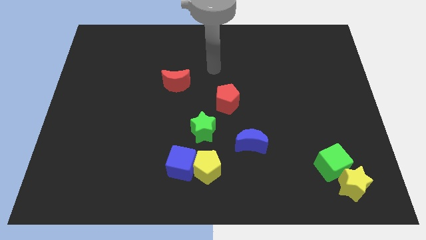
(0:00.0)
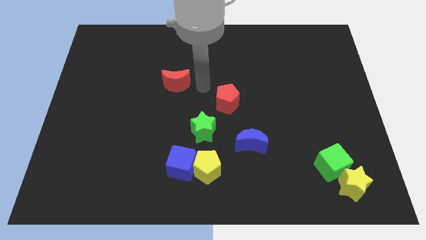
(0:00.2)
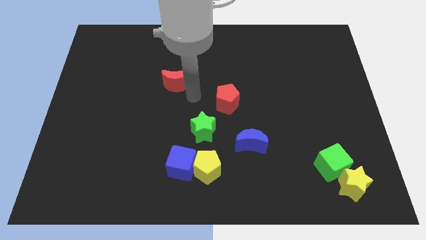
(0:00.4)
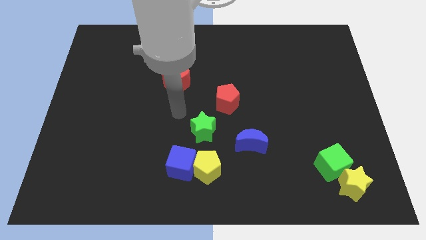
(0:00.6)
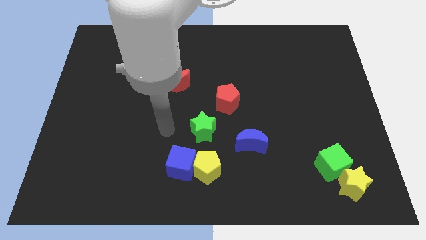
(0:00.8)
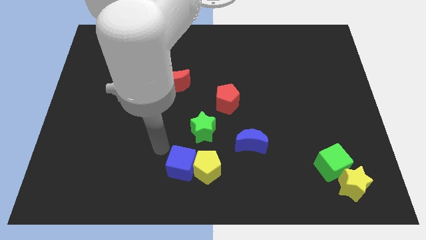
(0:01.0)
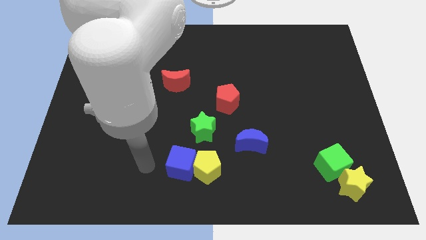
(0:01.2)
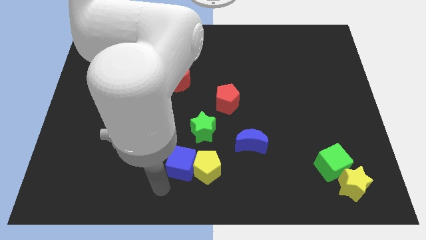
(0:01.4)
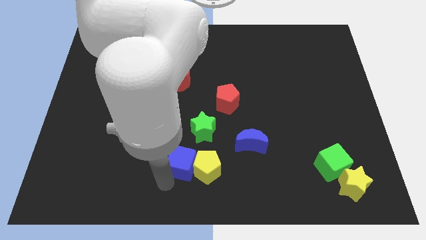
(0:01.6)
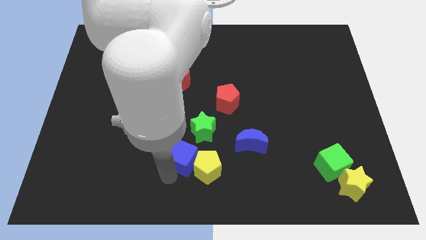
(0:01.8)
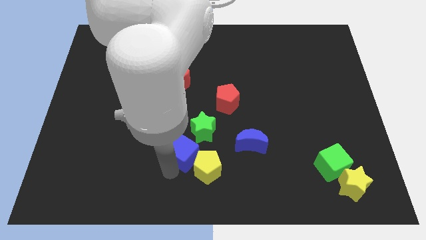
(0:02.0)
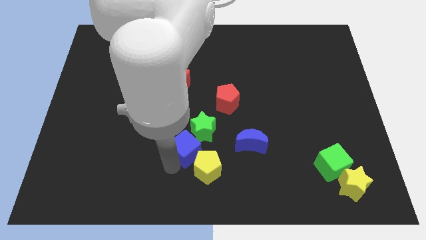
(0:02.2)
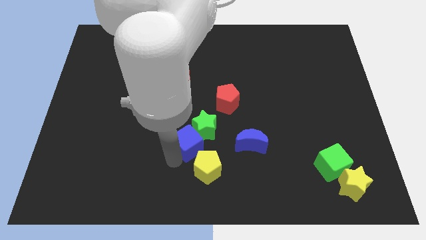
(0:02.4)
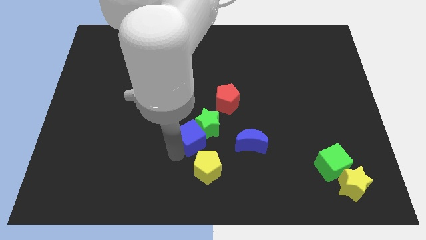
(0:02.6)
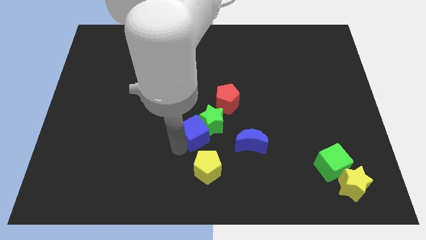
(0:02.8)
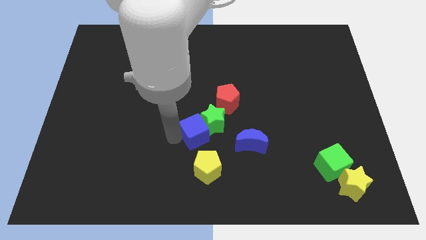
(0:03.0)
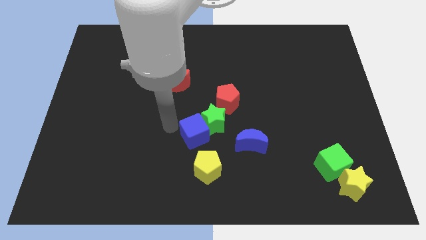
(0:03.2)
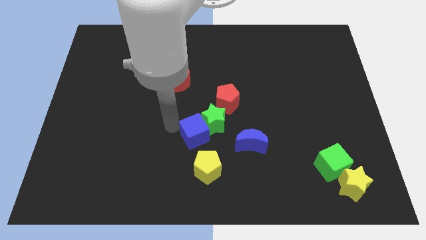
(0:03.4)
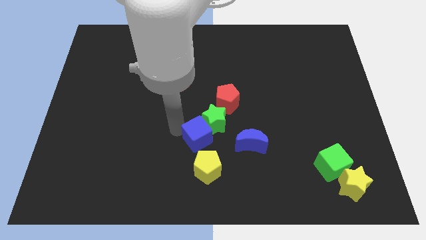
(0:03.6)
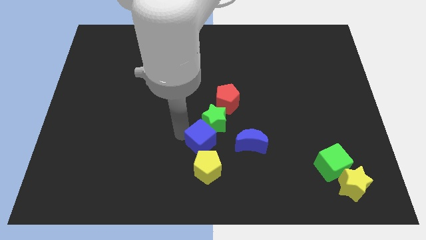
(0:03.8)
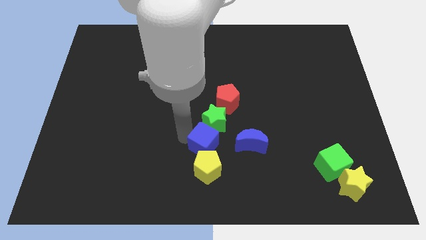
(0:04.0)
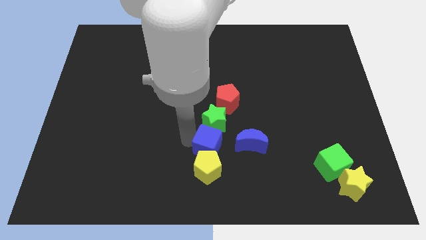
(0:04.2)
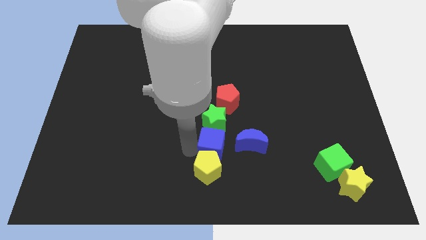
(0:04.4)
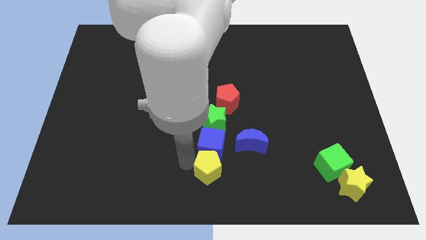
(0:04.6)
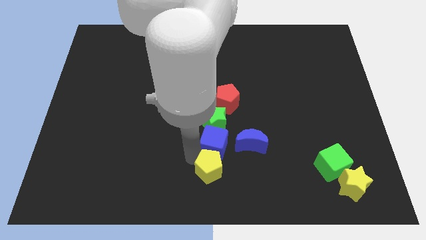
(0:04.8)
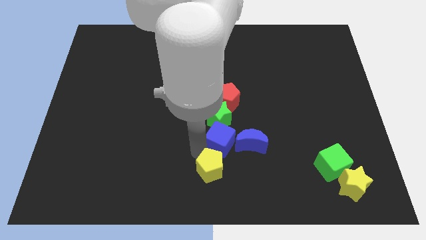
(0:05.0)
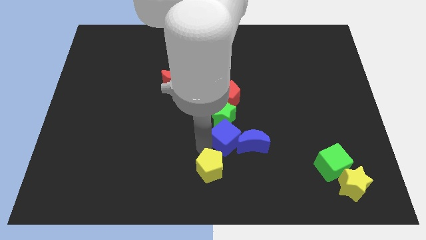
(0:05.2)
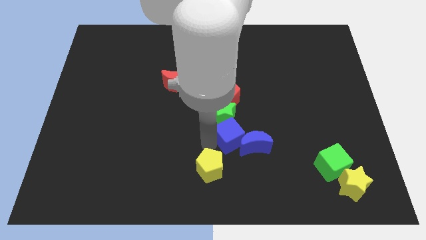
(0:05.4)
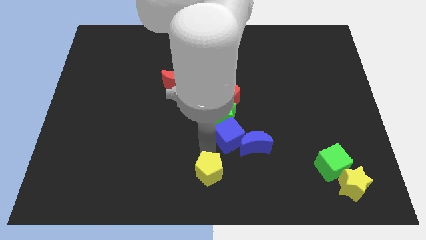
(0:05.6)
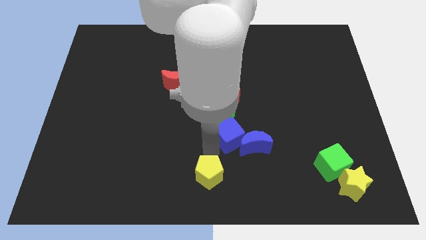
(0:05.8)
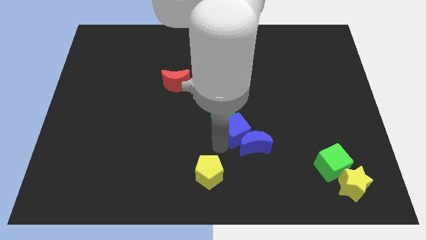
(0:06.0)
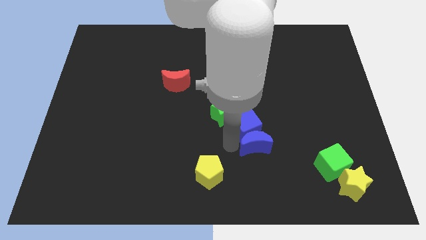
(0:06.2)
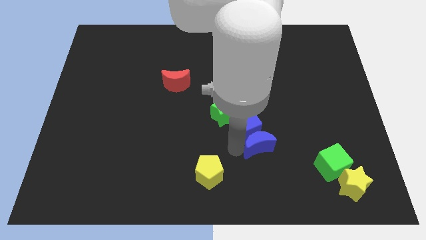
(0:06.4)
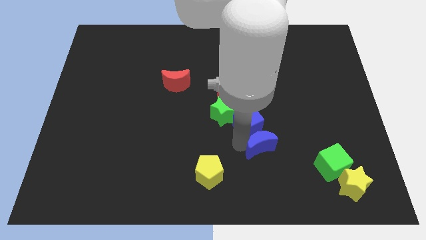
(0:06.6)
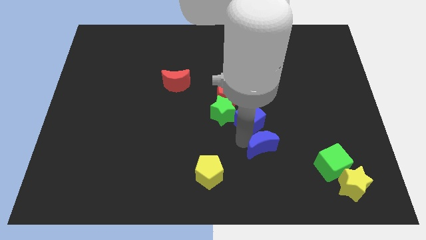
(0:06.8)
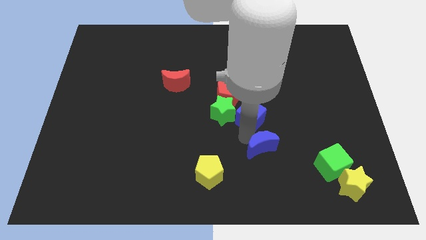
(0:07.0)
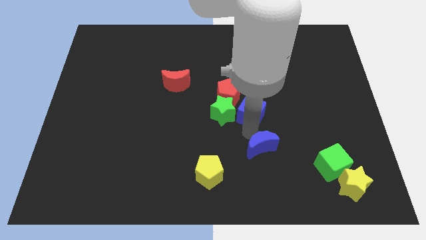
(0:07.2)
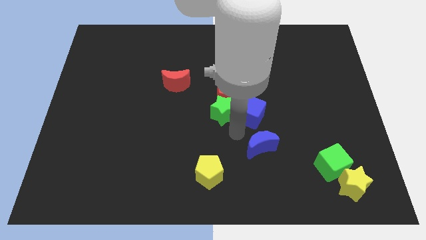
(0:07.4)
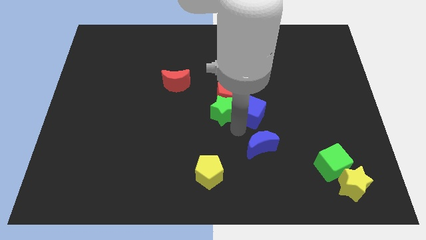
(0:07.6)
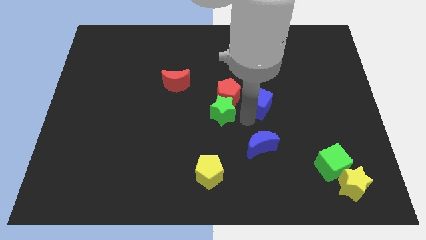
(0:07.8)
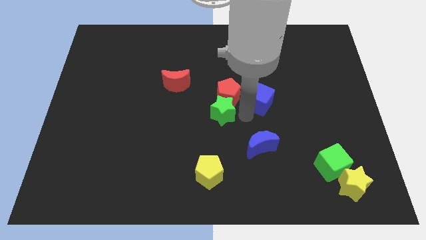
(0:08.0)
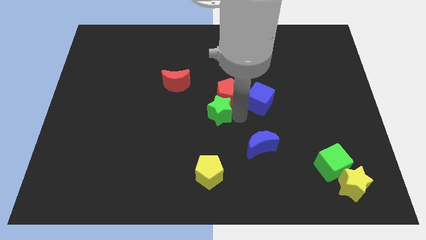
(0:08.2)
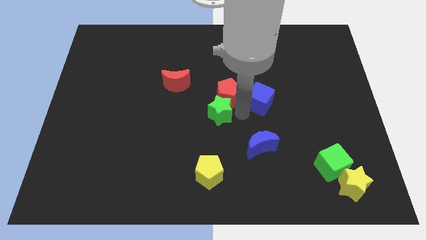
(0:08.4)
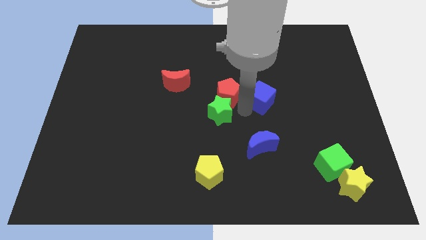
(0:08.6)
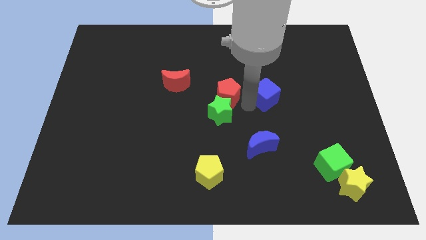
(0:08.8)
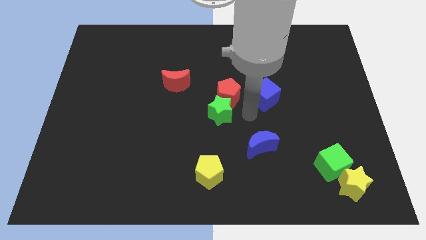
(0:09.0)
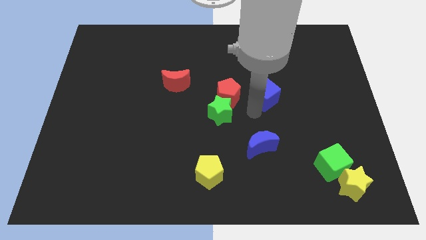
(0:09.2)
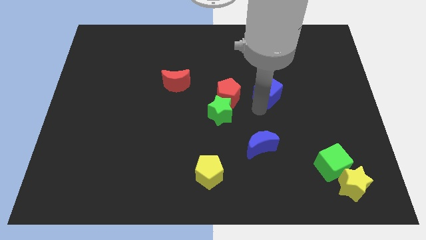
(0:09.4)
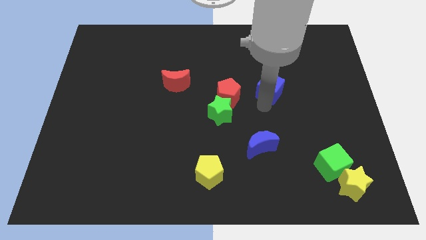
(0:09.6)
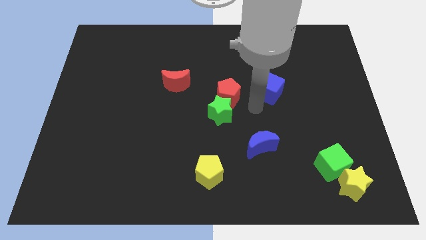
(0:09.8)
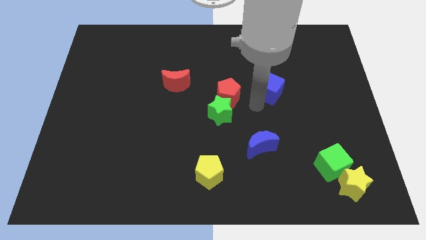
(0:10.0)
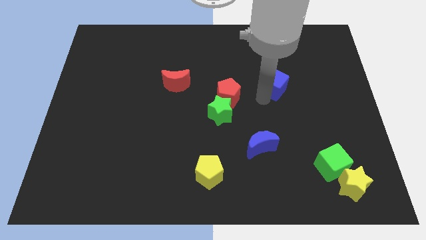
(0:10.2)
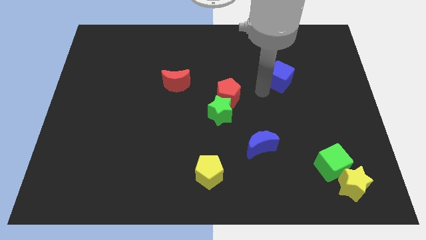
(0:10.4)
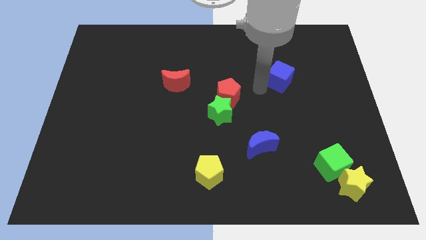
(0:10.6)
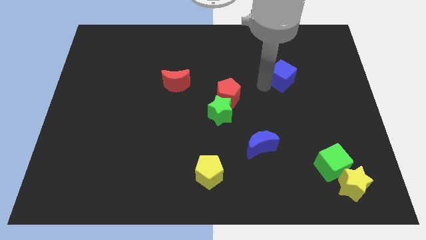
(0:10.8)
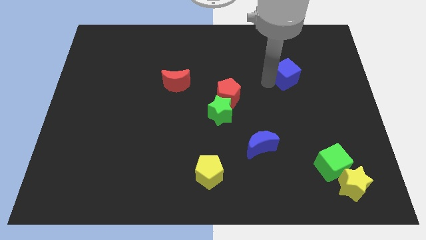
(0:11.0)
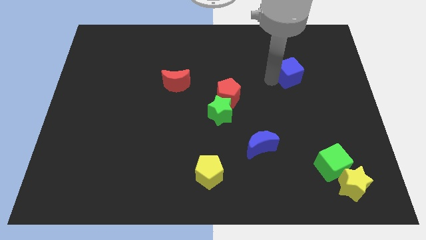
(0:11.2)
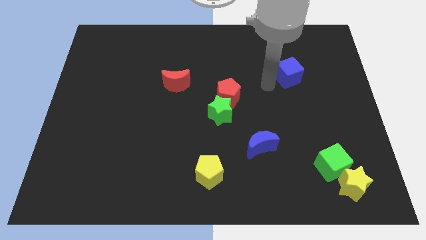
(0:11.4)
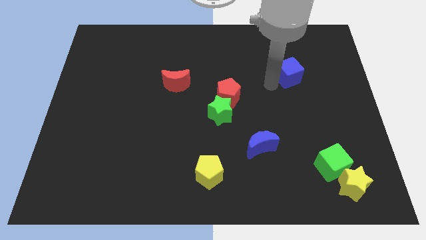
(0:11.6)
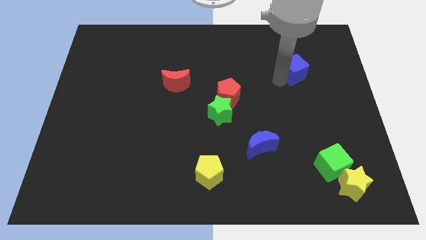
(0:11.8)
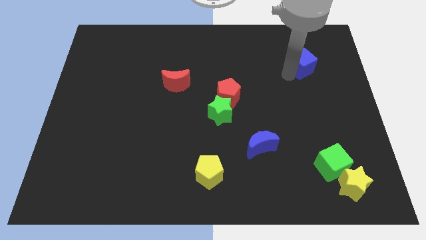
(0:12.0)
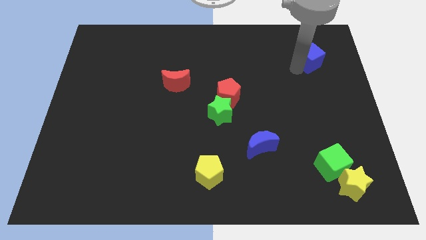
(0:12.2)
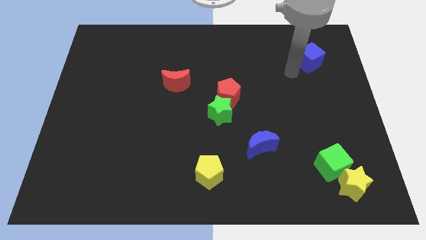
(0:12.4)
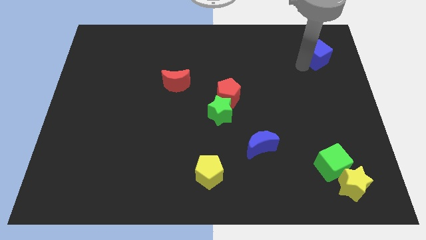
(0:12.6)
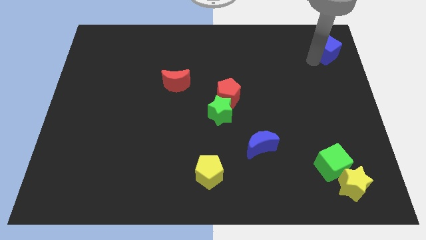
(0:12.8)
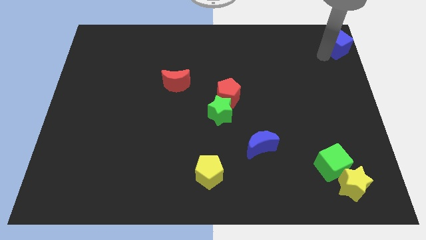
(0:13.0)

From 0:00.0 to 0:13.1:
push the blue cube to the top right

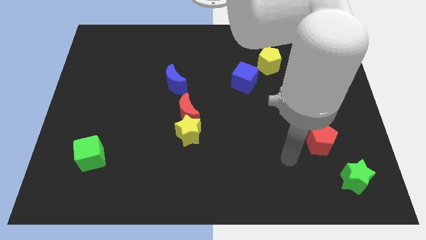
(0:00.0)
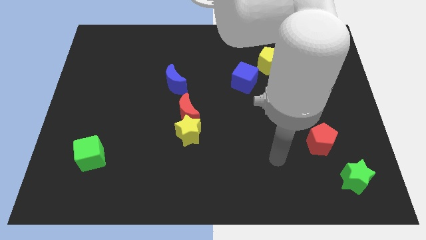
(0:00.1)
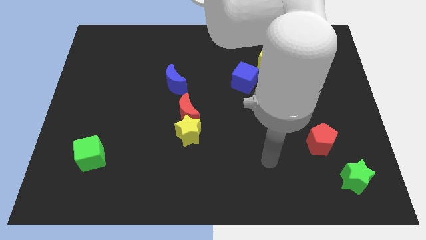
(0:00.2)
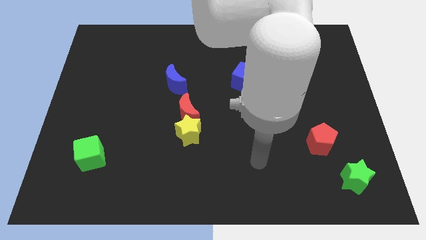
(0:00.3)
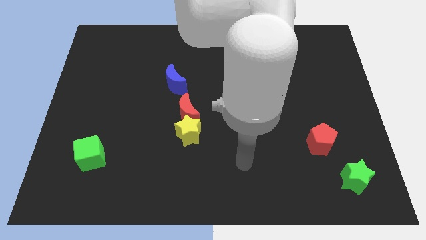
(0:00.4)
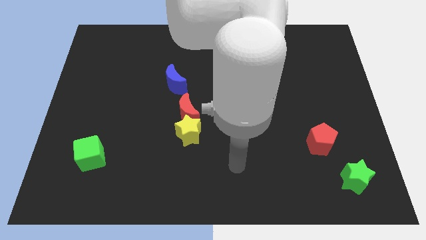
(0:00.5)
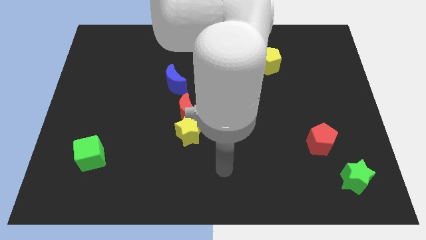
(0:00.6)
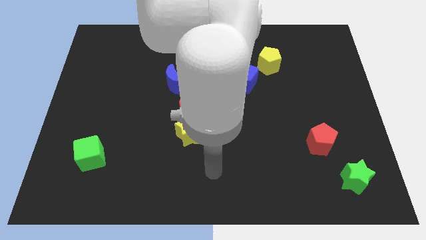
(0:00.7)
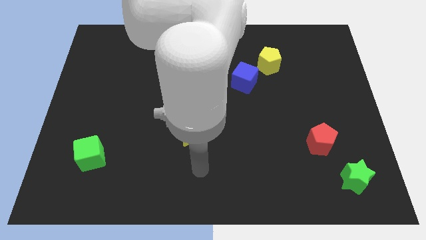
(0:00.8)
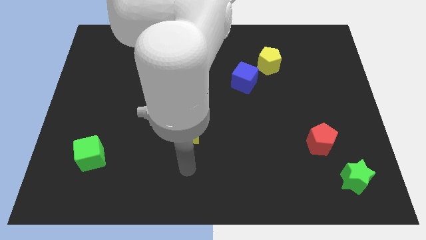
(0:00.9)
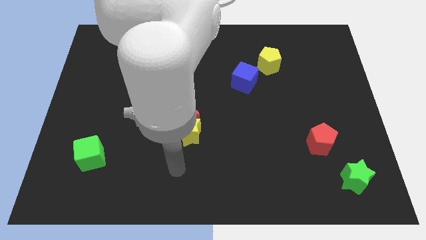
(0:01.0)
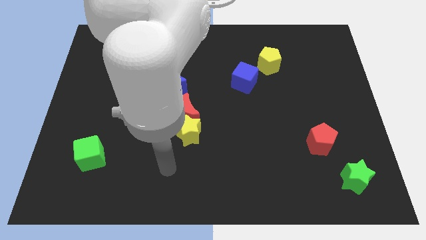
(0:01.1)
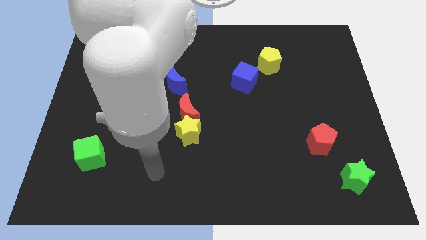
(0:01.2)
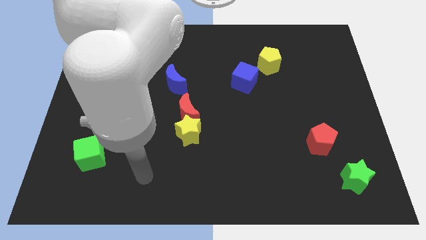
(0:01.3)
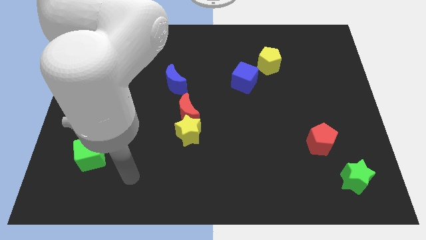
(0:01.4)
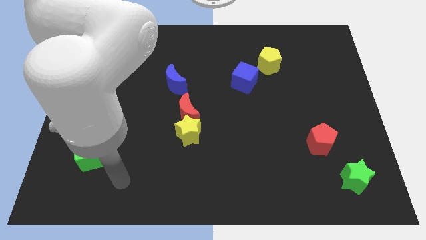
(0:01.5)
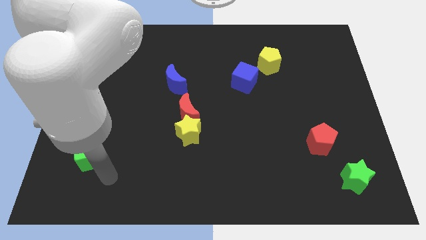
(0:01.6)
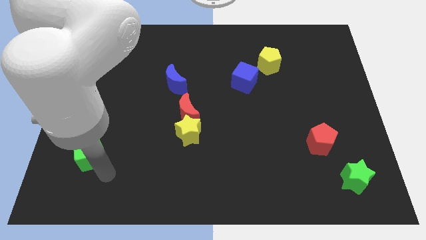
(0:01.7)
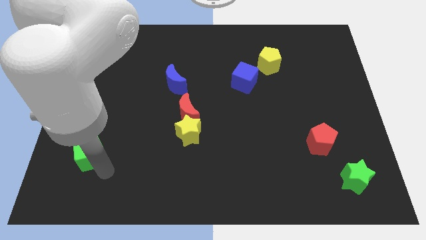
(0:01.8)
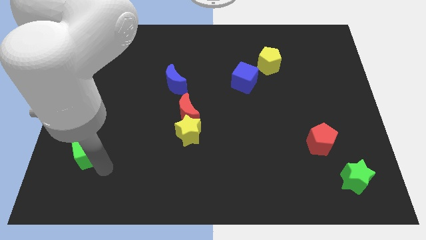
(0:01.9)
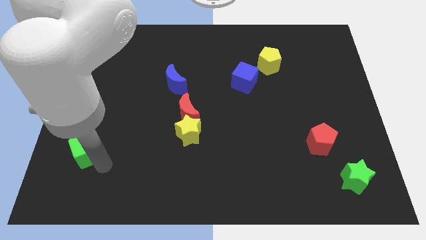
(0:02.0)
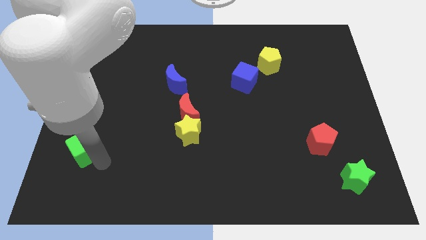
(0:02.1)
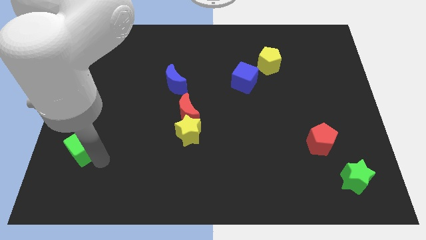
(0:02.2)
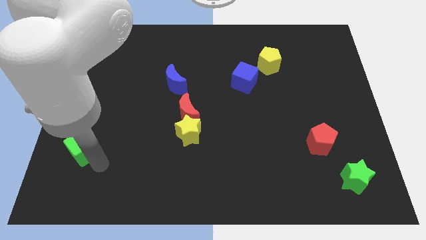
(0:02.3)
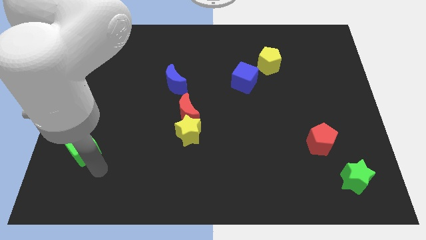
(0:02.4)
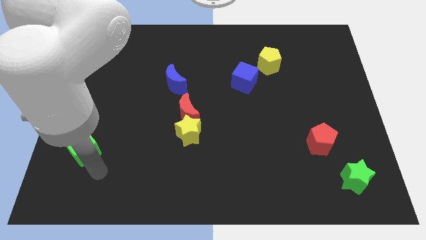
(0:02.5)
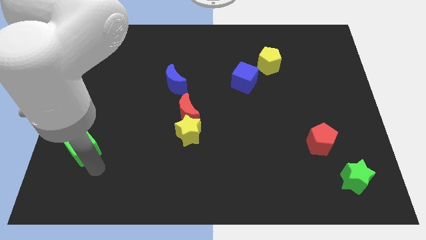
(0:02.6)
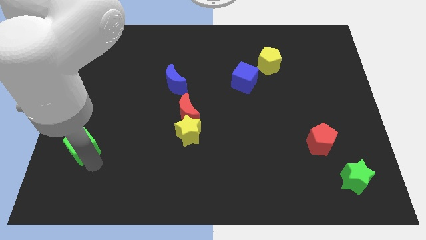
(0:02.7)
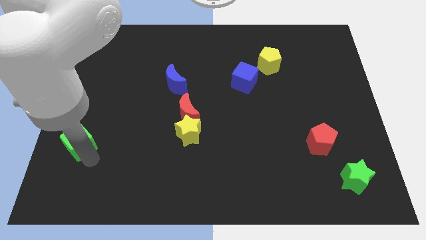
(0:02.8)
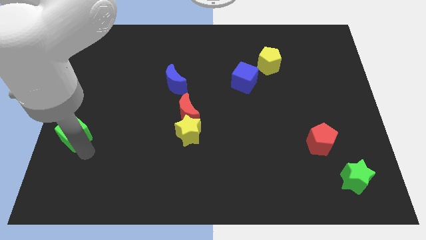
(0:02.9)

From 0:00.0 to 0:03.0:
put the green cube to the center left
